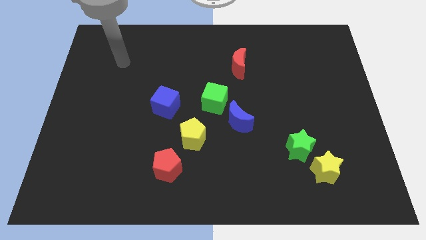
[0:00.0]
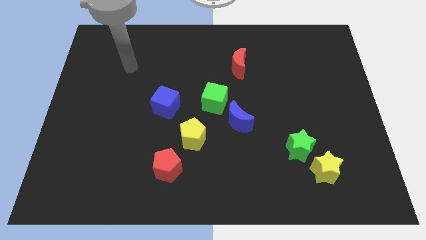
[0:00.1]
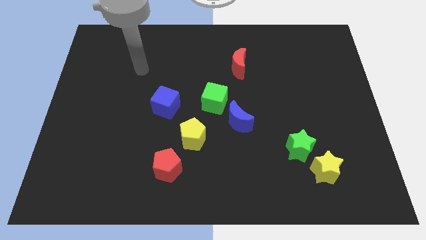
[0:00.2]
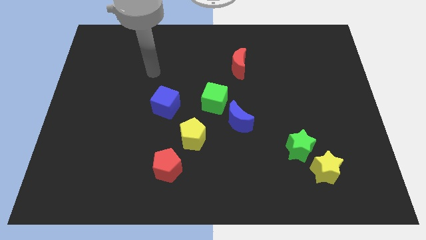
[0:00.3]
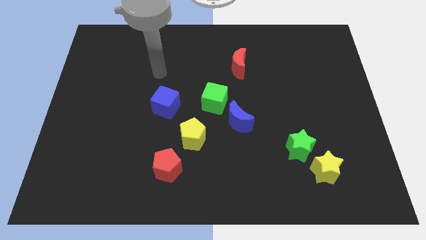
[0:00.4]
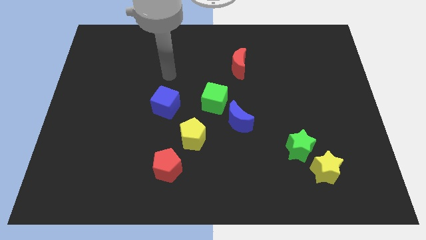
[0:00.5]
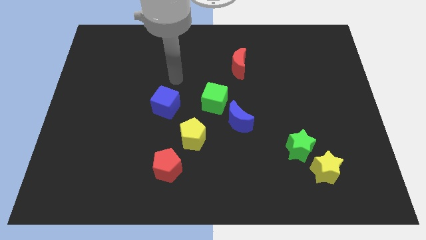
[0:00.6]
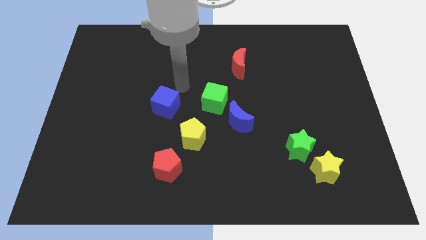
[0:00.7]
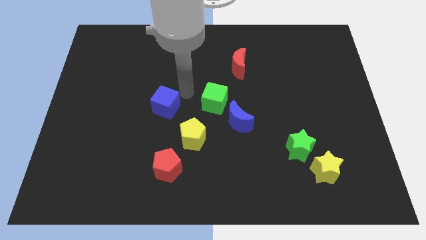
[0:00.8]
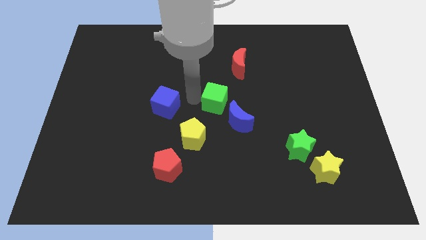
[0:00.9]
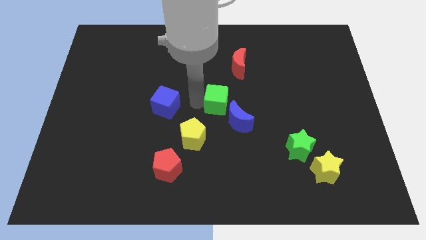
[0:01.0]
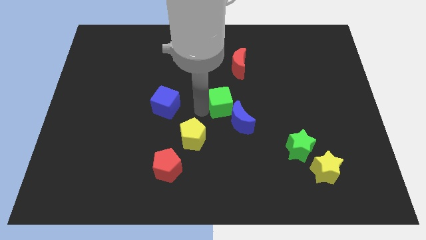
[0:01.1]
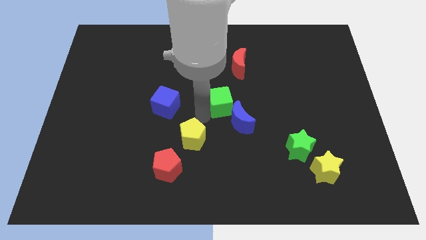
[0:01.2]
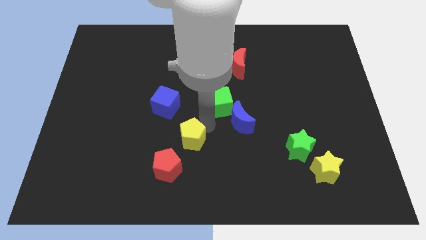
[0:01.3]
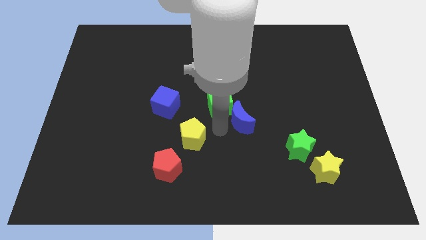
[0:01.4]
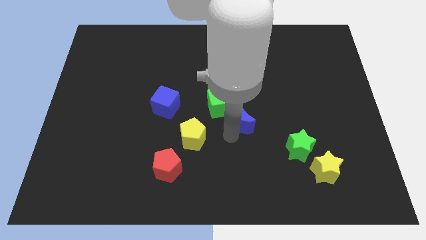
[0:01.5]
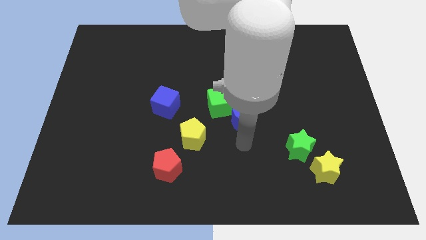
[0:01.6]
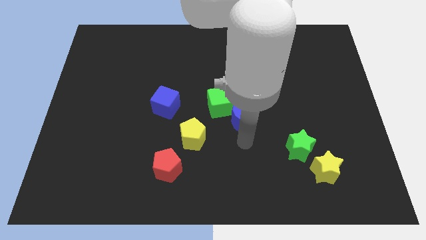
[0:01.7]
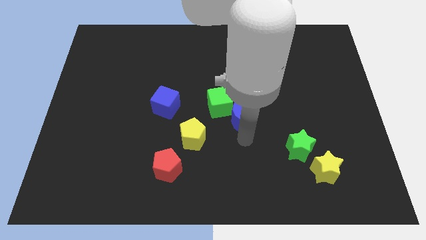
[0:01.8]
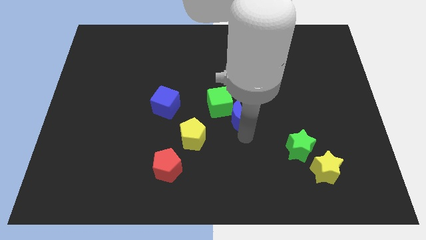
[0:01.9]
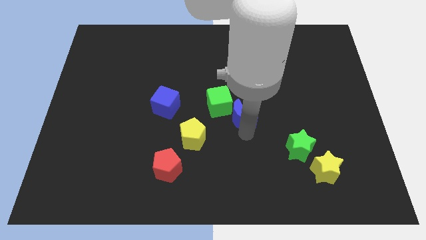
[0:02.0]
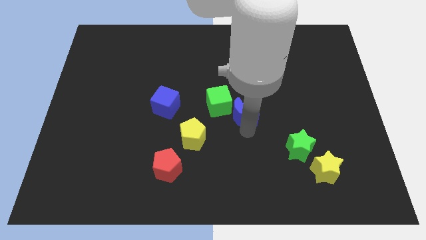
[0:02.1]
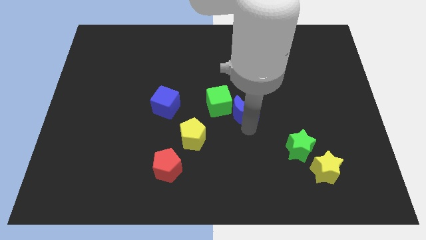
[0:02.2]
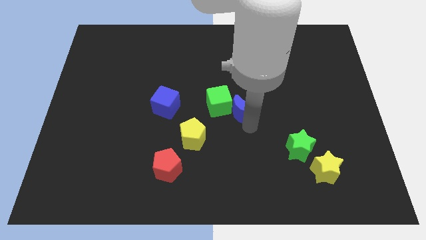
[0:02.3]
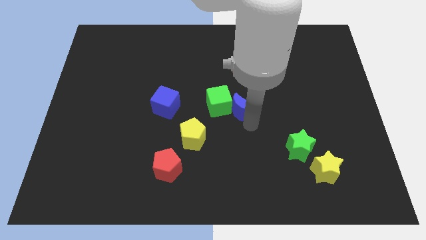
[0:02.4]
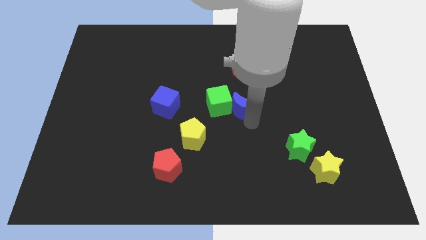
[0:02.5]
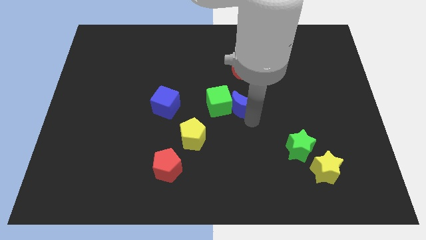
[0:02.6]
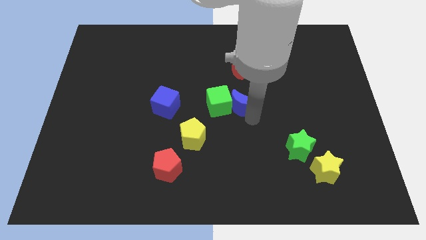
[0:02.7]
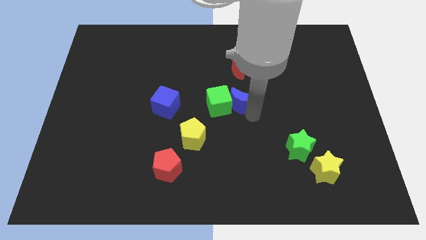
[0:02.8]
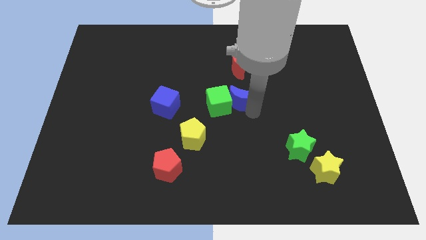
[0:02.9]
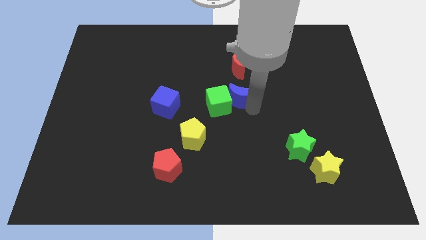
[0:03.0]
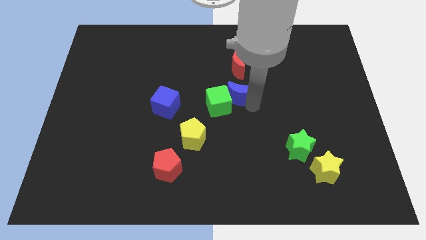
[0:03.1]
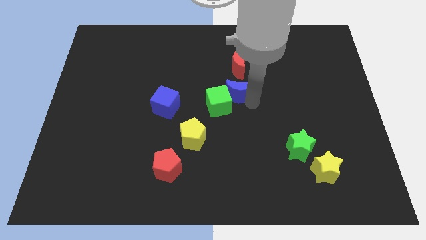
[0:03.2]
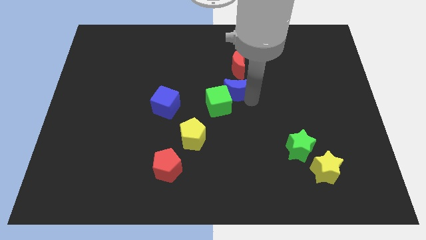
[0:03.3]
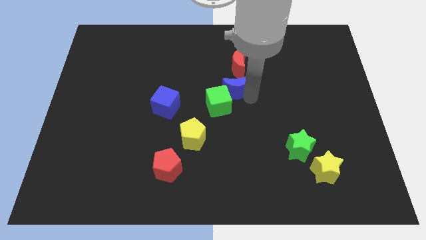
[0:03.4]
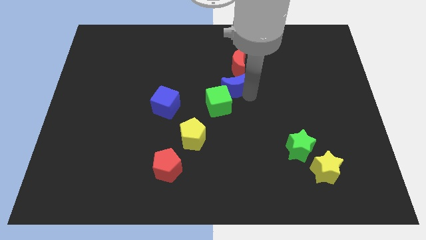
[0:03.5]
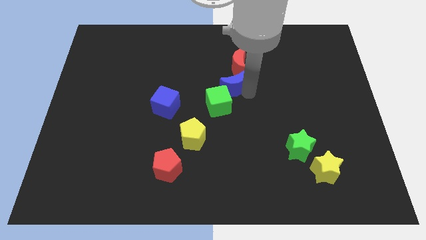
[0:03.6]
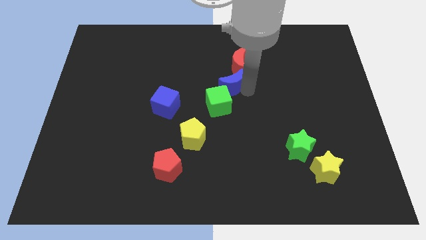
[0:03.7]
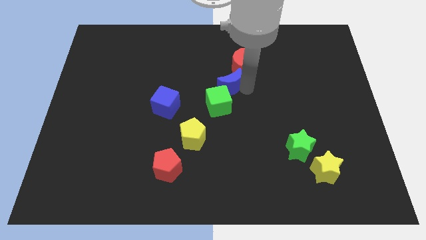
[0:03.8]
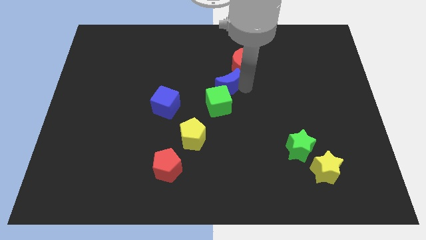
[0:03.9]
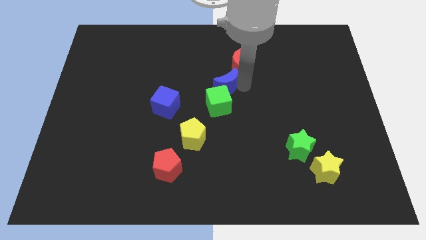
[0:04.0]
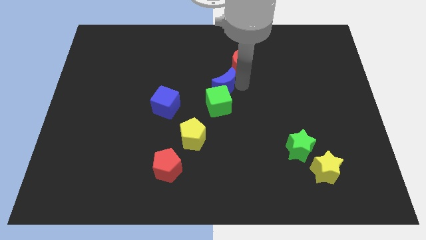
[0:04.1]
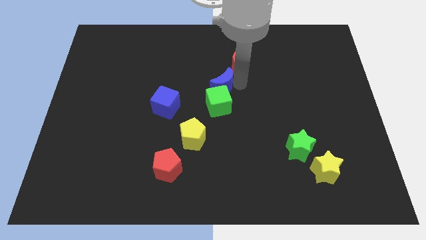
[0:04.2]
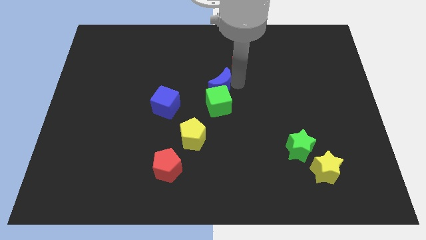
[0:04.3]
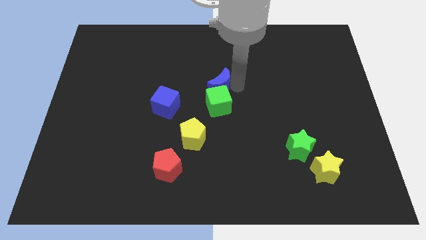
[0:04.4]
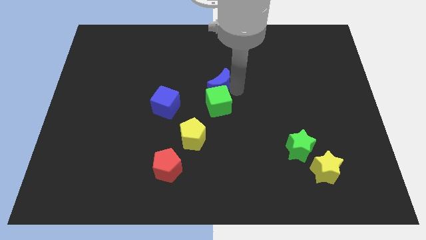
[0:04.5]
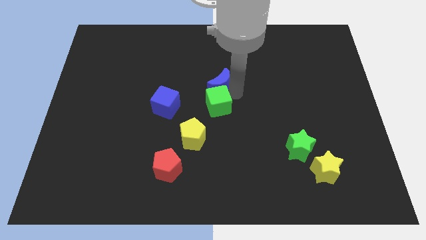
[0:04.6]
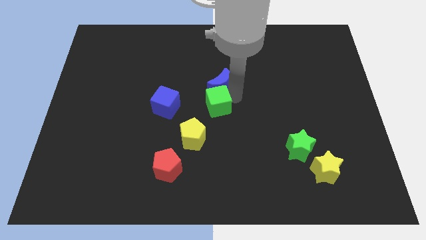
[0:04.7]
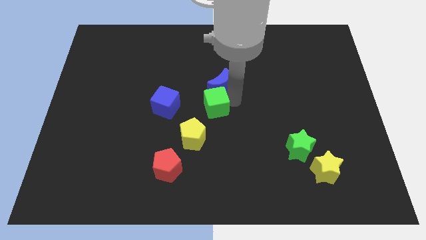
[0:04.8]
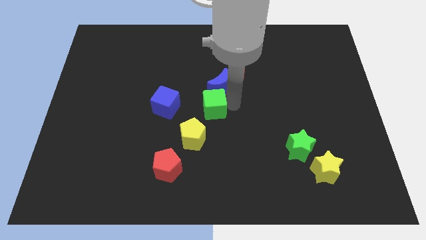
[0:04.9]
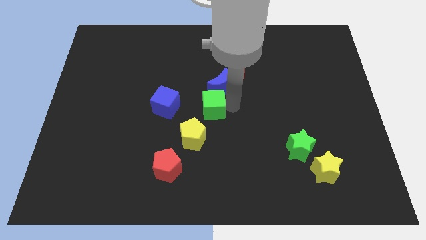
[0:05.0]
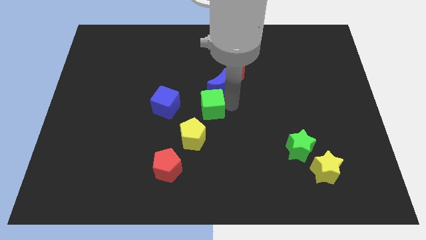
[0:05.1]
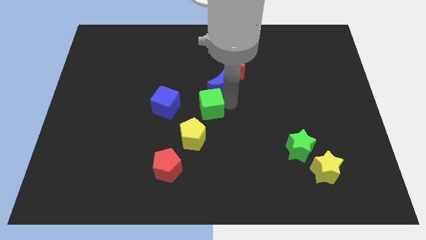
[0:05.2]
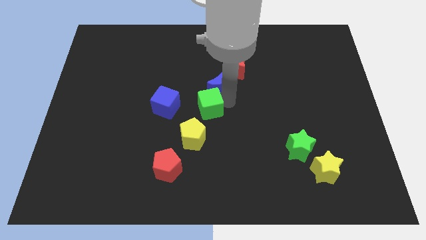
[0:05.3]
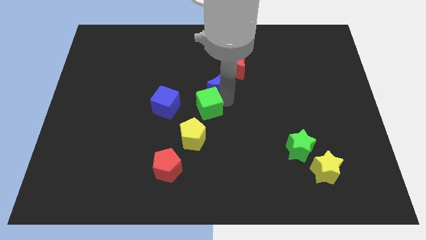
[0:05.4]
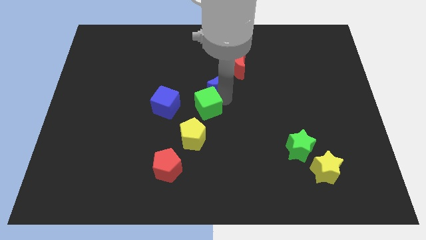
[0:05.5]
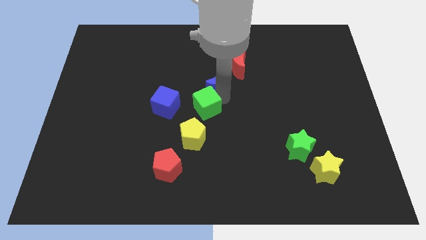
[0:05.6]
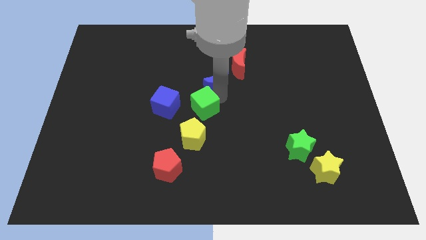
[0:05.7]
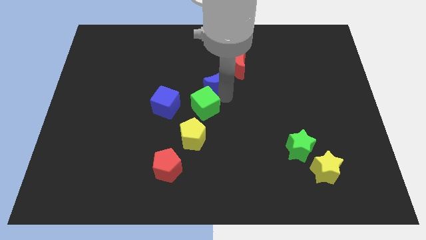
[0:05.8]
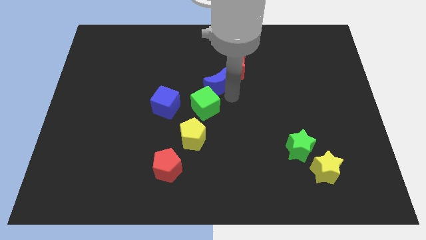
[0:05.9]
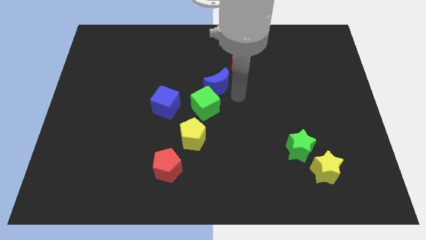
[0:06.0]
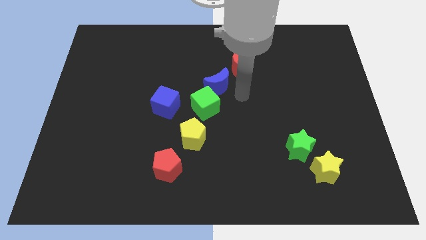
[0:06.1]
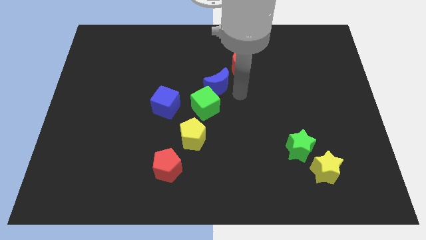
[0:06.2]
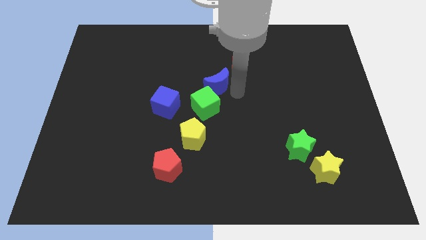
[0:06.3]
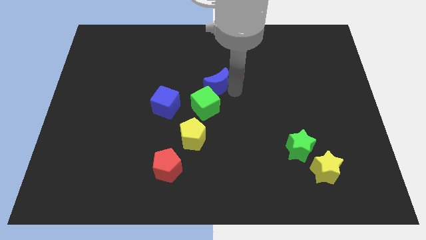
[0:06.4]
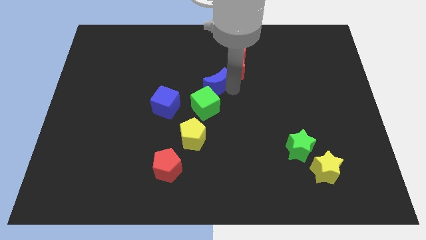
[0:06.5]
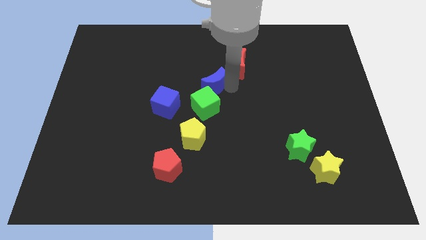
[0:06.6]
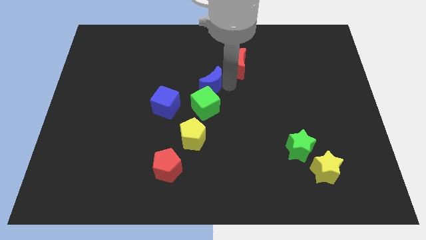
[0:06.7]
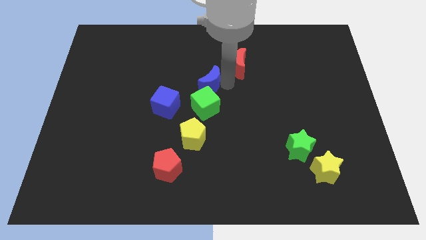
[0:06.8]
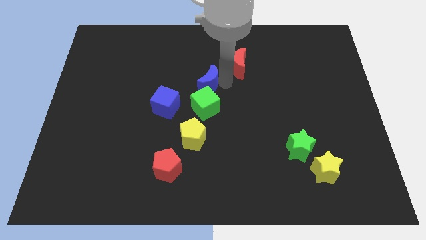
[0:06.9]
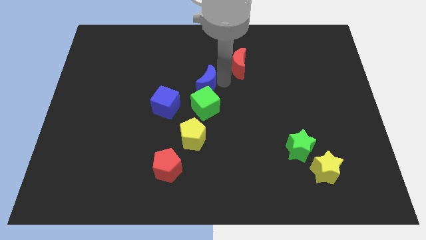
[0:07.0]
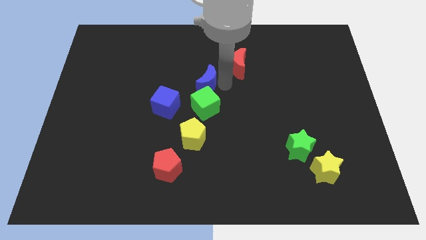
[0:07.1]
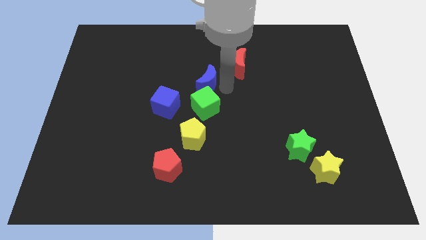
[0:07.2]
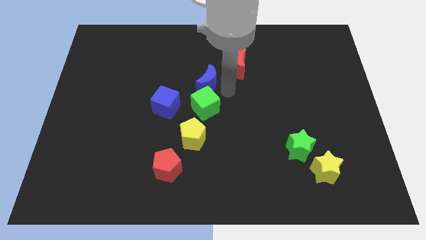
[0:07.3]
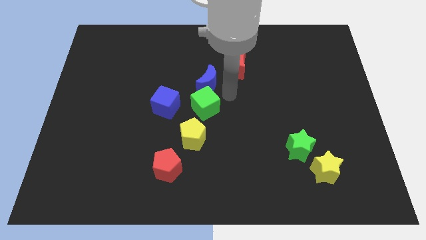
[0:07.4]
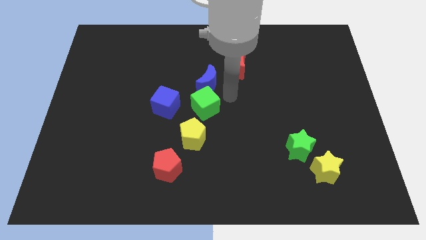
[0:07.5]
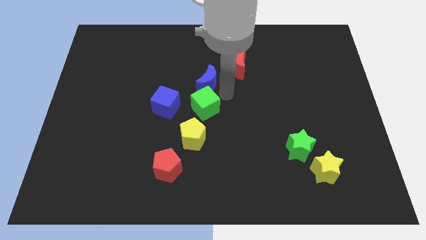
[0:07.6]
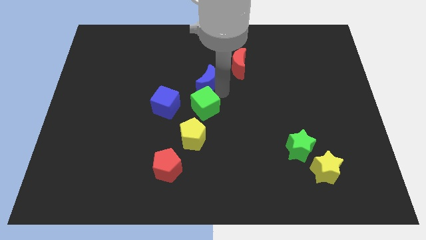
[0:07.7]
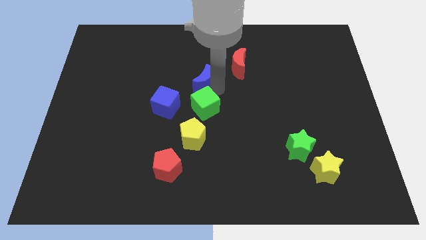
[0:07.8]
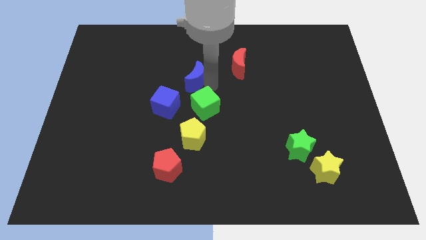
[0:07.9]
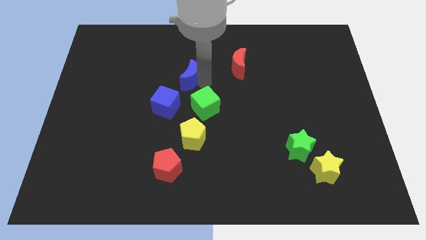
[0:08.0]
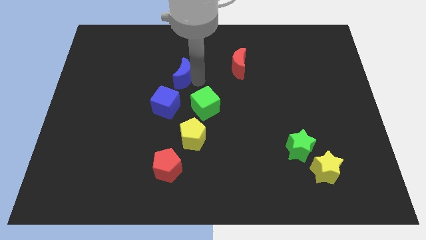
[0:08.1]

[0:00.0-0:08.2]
slide the blue moon to the top of the blue cube
